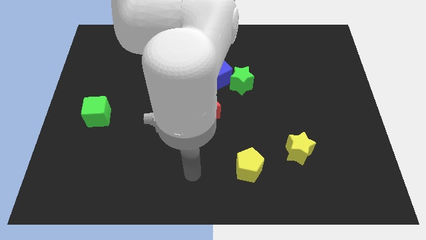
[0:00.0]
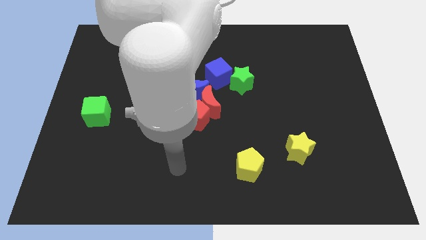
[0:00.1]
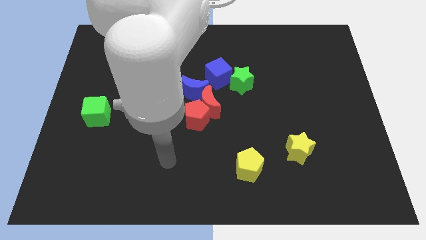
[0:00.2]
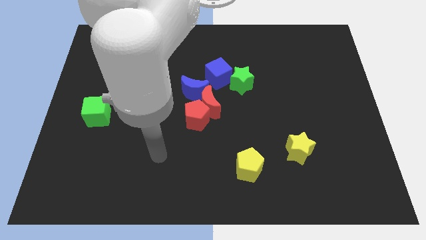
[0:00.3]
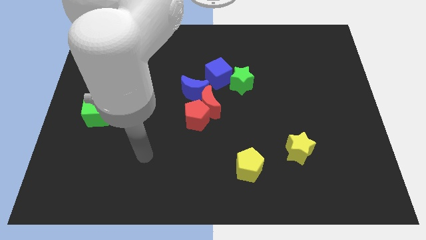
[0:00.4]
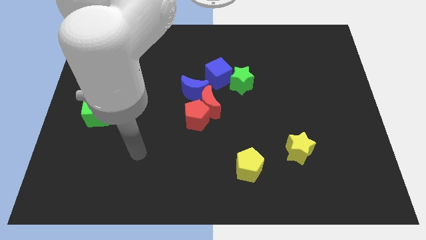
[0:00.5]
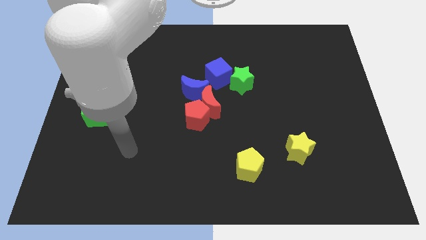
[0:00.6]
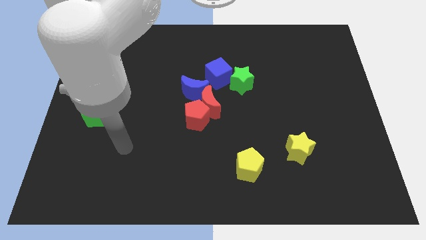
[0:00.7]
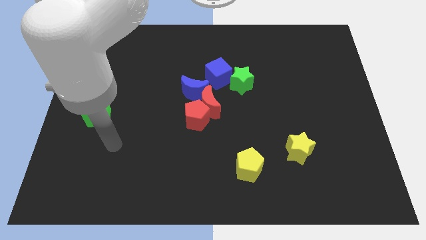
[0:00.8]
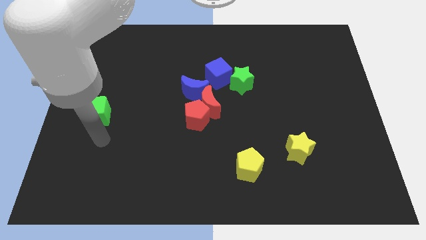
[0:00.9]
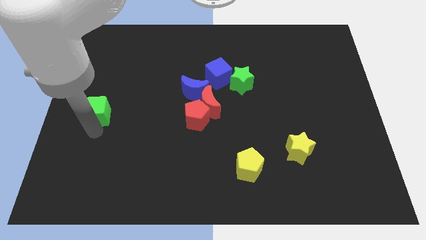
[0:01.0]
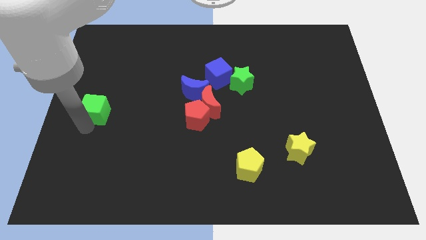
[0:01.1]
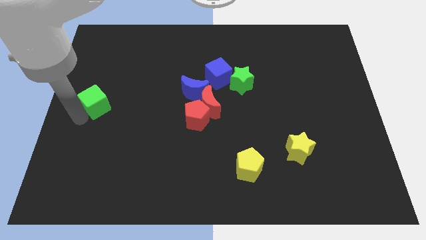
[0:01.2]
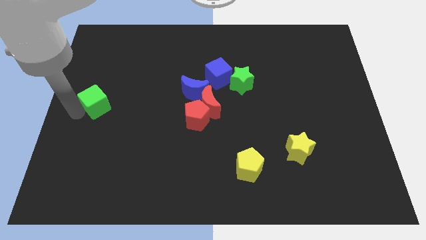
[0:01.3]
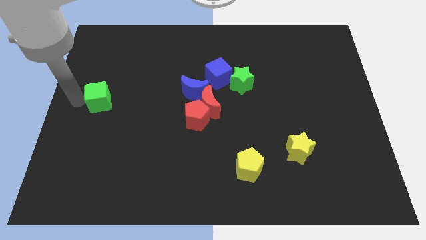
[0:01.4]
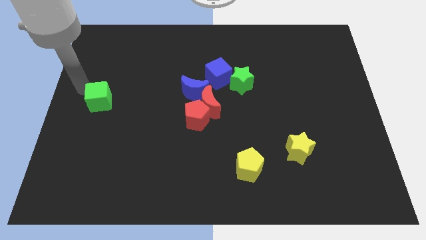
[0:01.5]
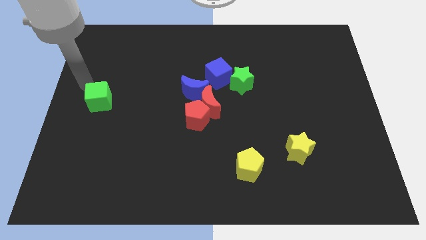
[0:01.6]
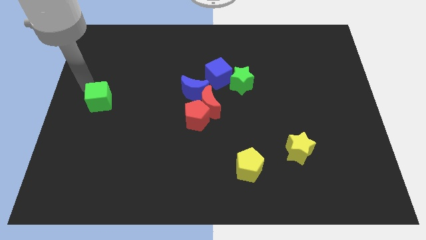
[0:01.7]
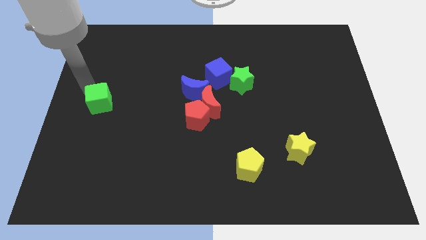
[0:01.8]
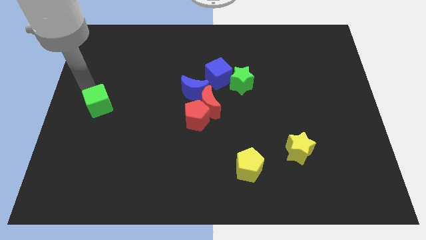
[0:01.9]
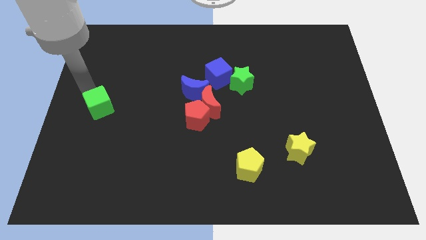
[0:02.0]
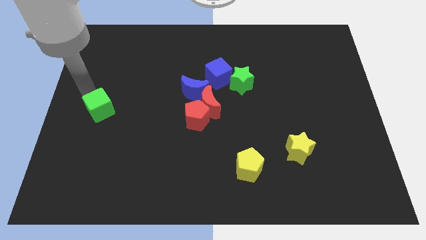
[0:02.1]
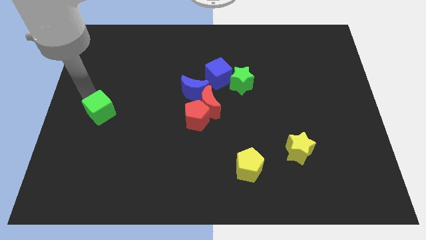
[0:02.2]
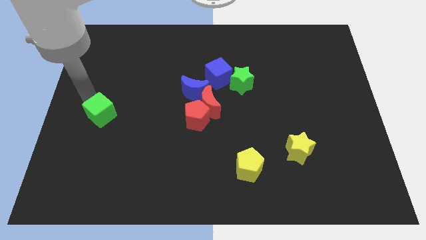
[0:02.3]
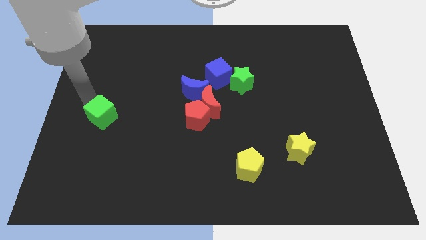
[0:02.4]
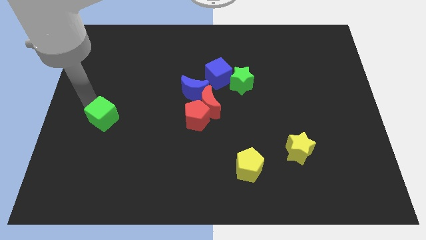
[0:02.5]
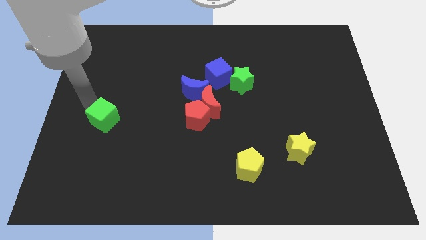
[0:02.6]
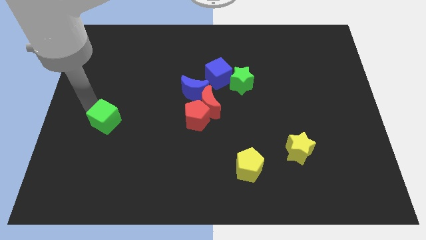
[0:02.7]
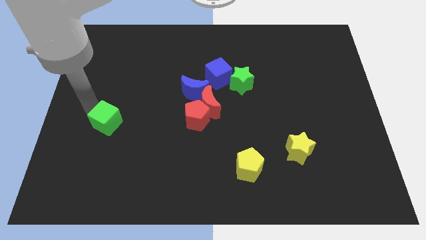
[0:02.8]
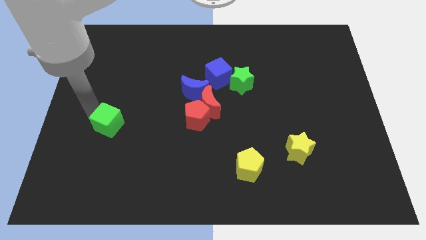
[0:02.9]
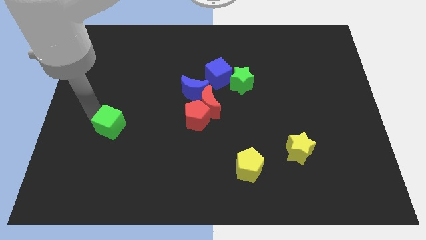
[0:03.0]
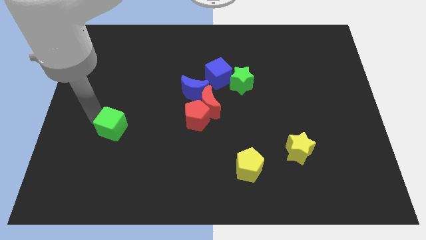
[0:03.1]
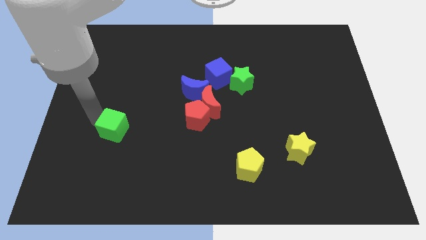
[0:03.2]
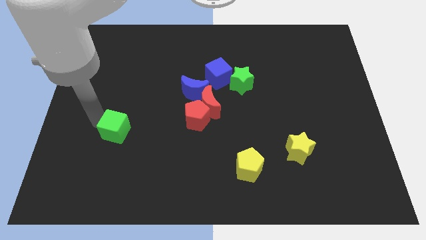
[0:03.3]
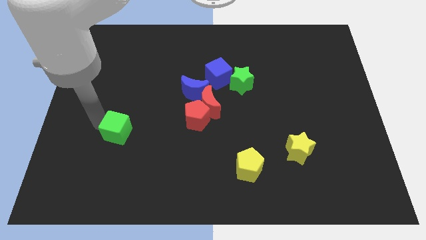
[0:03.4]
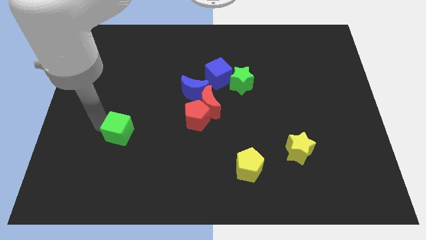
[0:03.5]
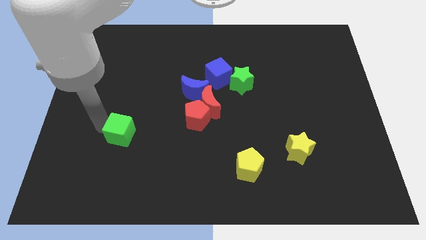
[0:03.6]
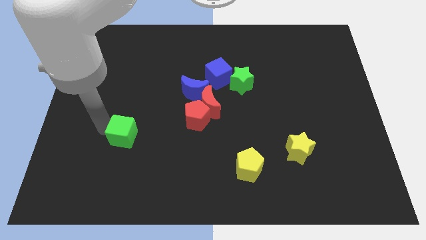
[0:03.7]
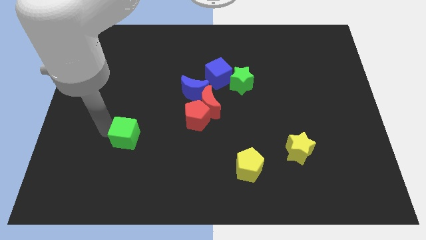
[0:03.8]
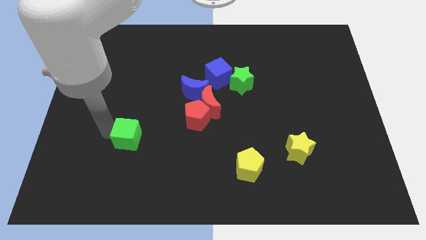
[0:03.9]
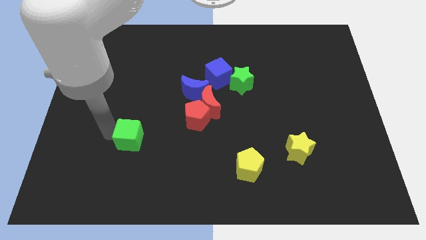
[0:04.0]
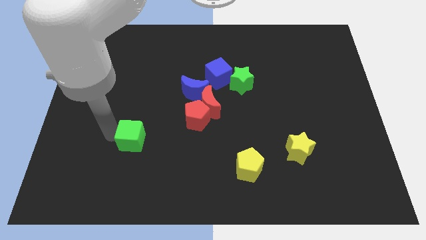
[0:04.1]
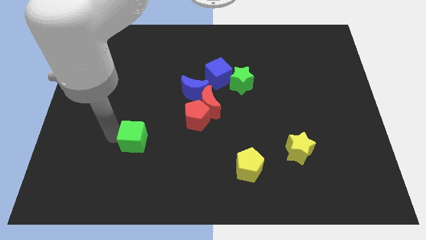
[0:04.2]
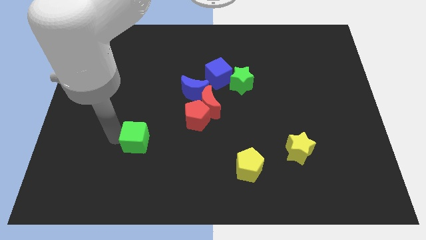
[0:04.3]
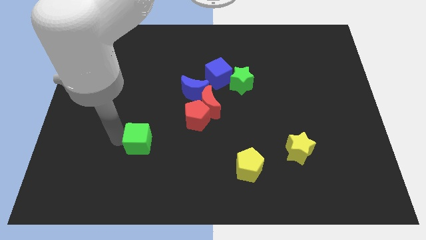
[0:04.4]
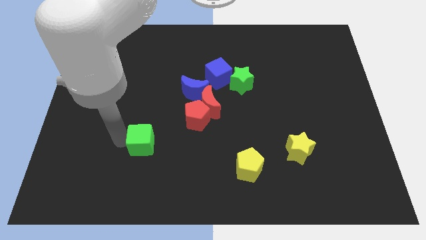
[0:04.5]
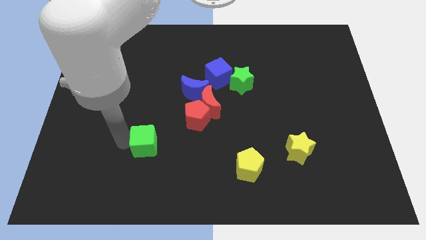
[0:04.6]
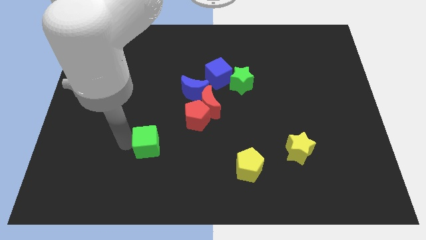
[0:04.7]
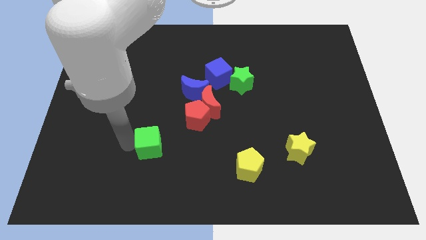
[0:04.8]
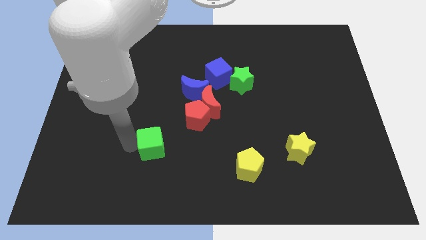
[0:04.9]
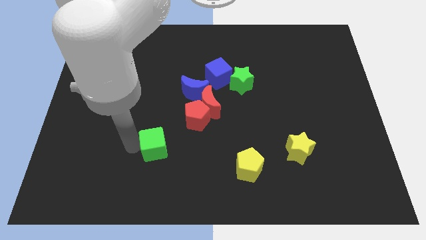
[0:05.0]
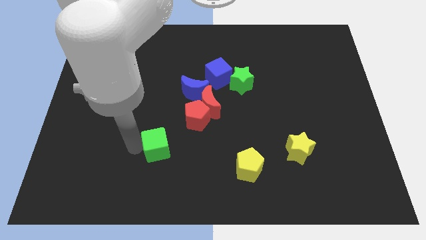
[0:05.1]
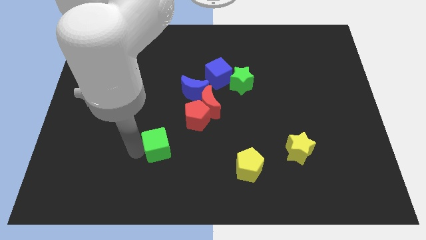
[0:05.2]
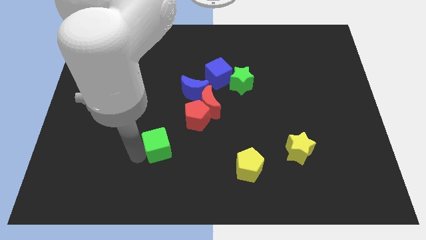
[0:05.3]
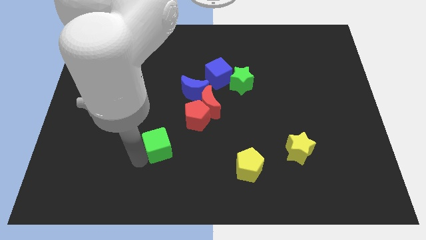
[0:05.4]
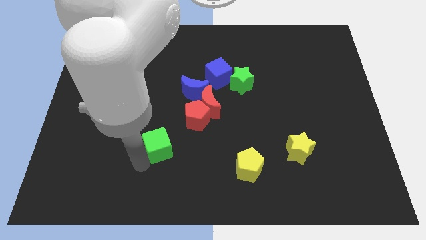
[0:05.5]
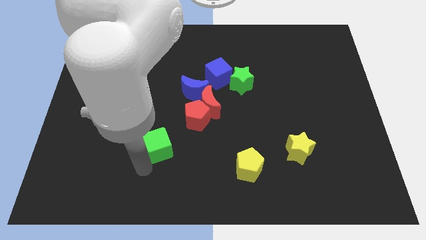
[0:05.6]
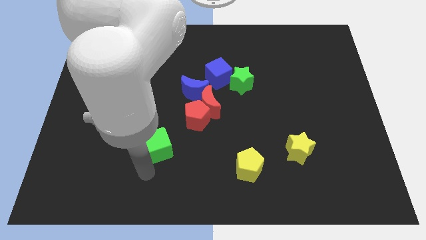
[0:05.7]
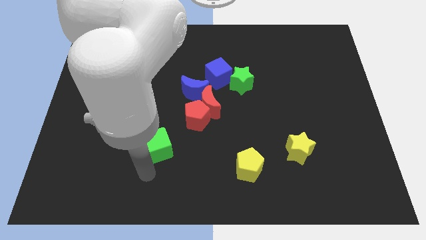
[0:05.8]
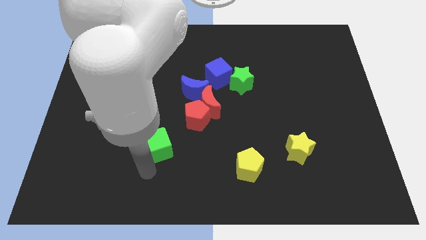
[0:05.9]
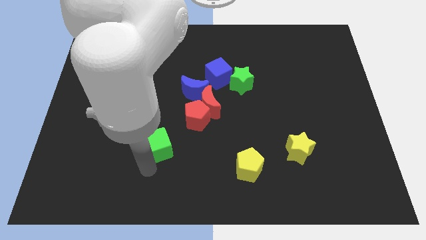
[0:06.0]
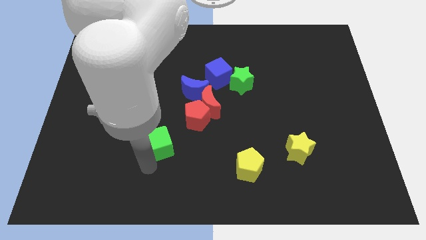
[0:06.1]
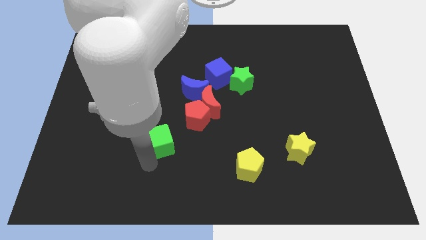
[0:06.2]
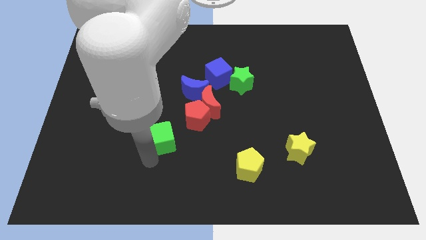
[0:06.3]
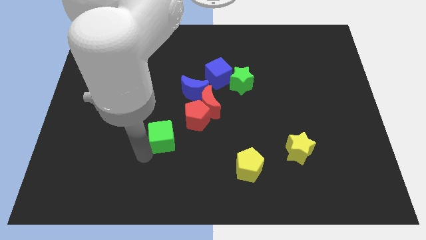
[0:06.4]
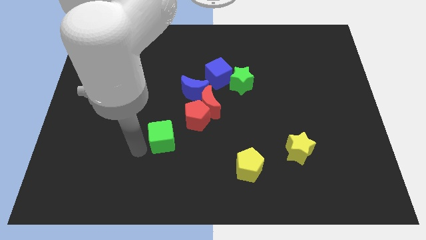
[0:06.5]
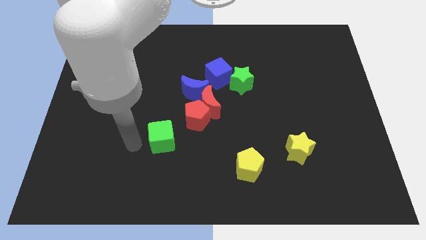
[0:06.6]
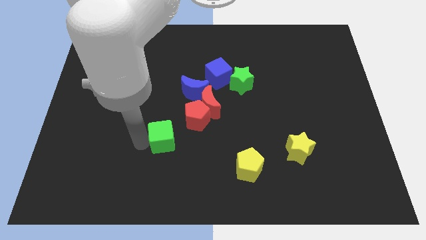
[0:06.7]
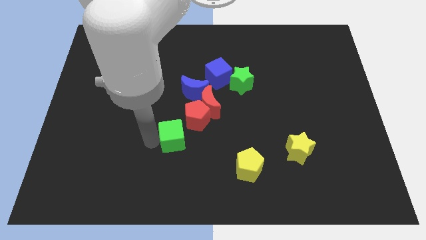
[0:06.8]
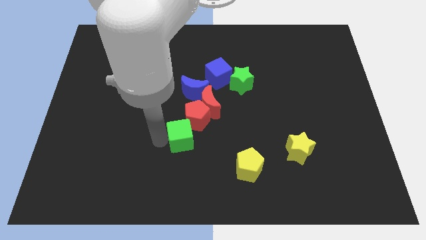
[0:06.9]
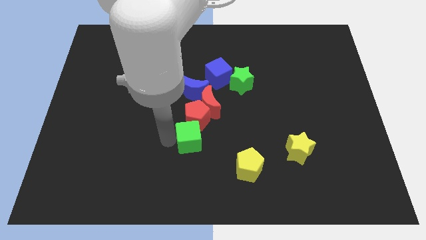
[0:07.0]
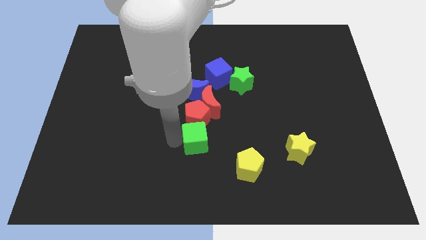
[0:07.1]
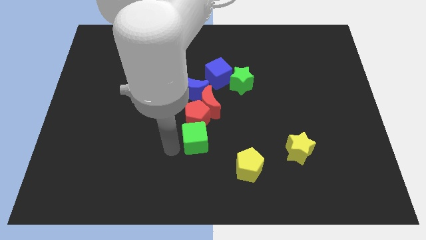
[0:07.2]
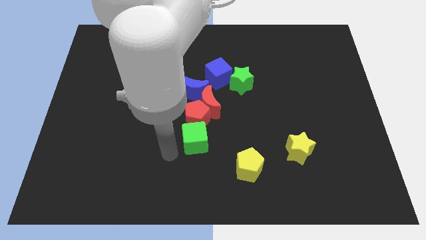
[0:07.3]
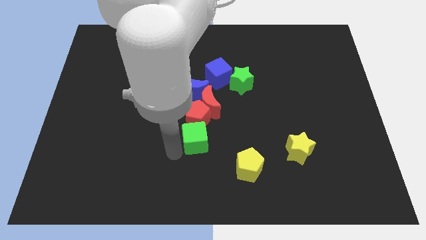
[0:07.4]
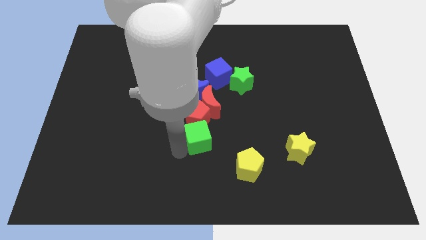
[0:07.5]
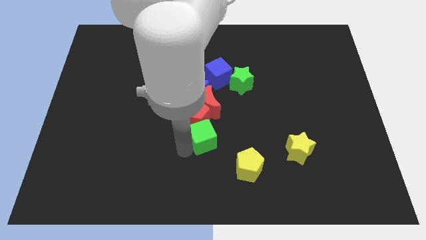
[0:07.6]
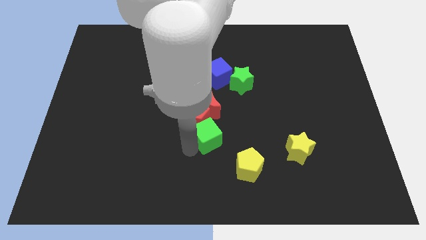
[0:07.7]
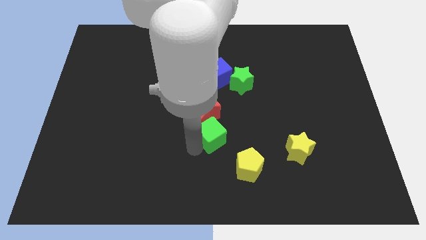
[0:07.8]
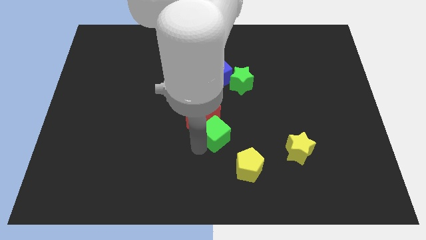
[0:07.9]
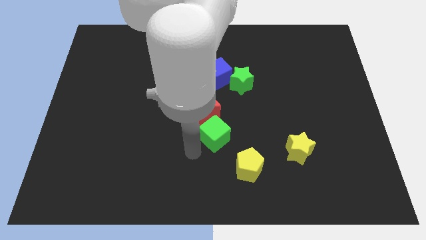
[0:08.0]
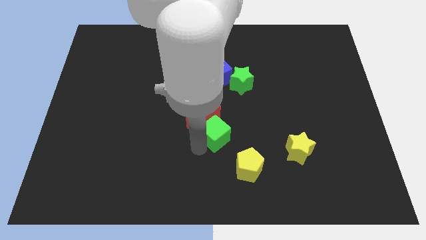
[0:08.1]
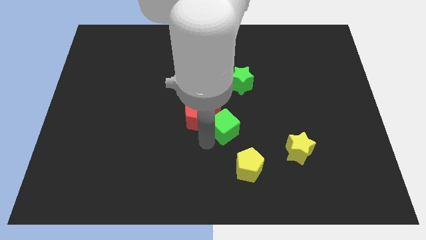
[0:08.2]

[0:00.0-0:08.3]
move the green cube to the bottom of the green star
